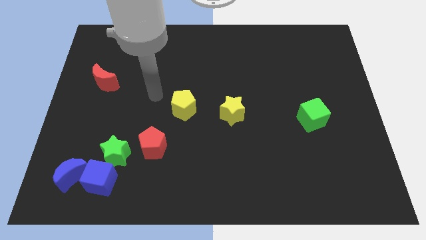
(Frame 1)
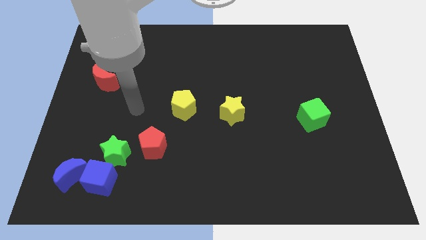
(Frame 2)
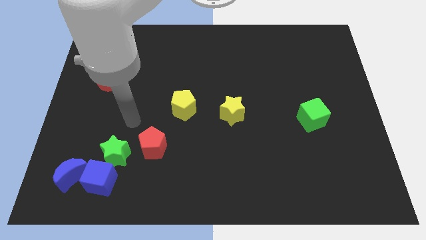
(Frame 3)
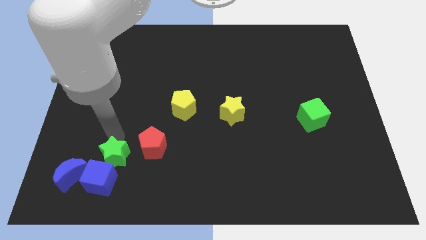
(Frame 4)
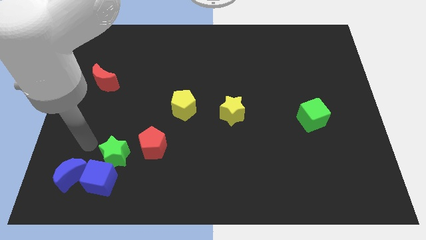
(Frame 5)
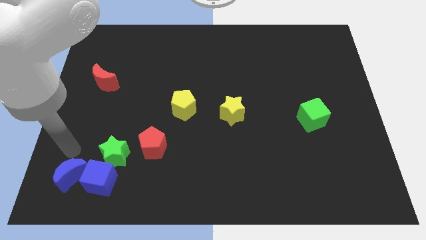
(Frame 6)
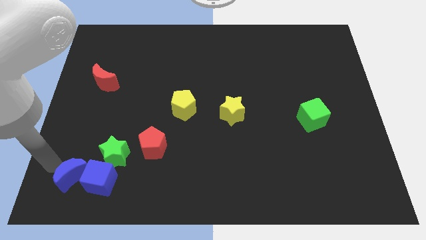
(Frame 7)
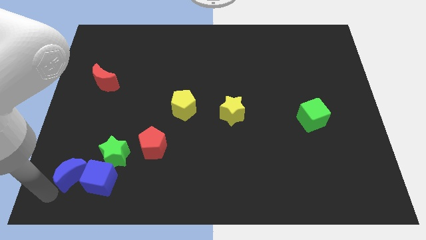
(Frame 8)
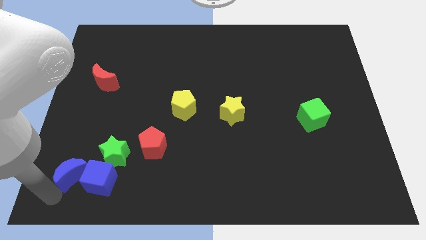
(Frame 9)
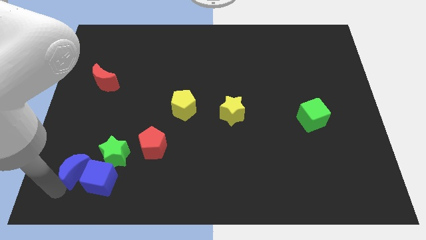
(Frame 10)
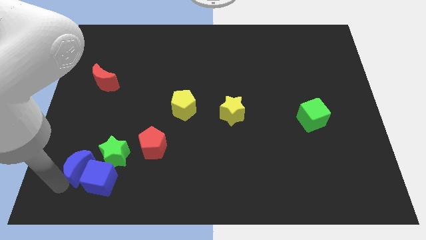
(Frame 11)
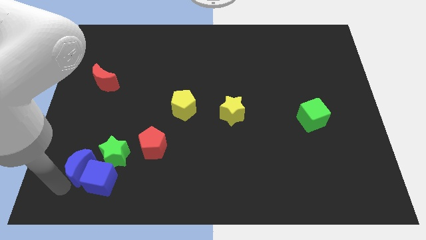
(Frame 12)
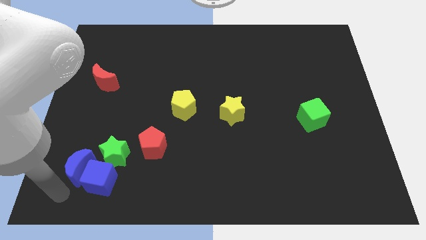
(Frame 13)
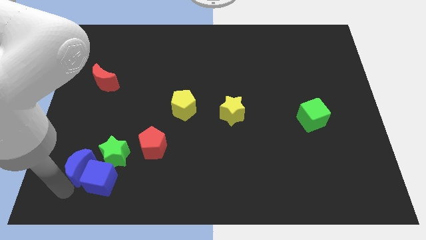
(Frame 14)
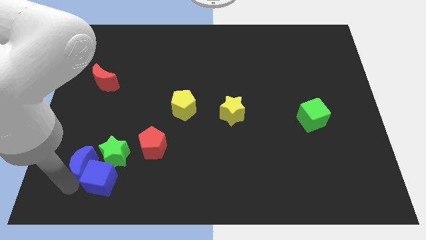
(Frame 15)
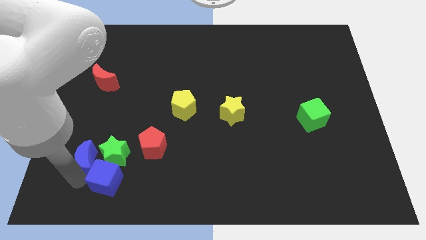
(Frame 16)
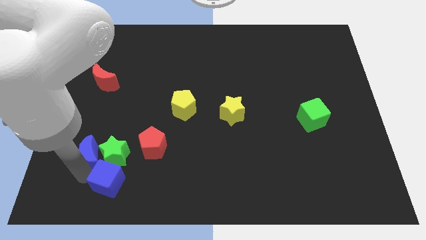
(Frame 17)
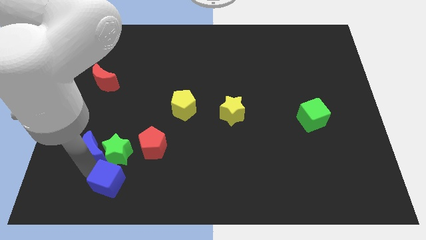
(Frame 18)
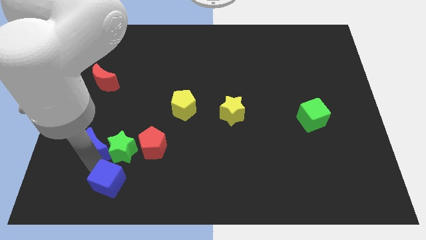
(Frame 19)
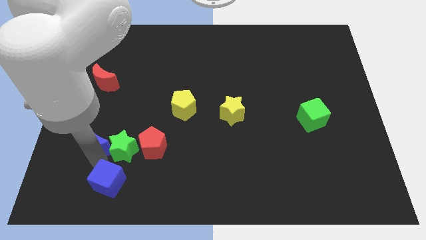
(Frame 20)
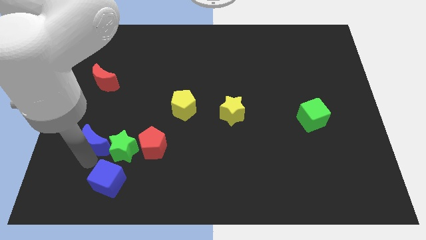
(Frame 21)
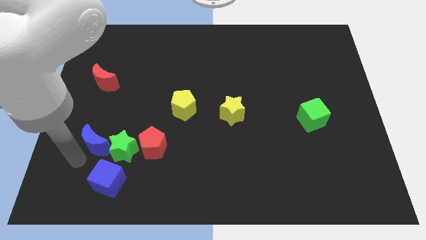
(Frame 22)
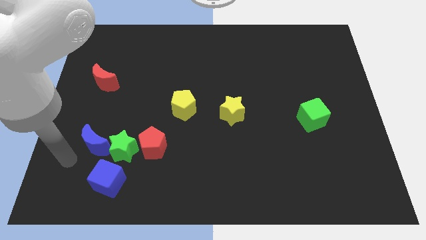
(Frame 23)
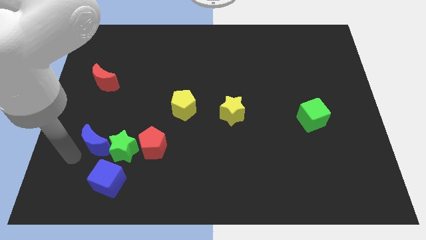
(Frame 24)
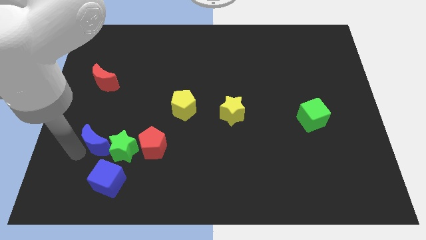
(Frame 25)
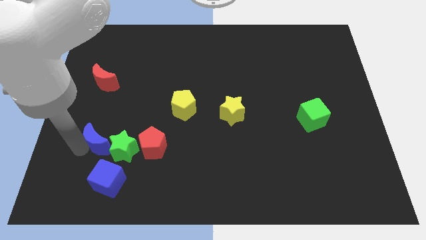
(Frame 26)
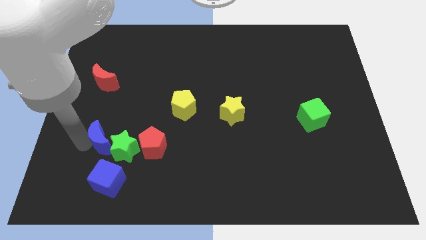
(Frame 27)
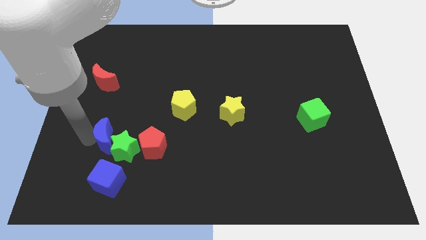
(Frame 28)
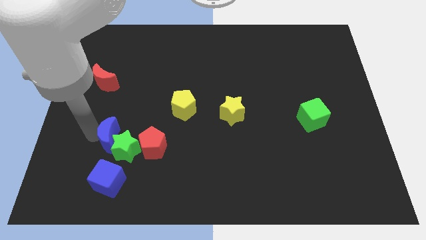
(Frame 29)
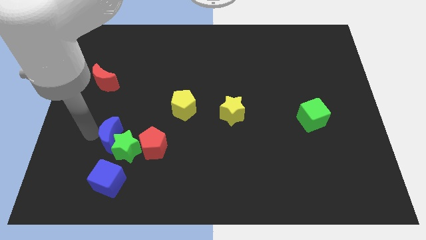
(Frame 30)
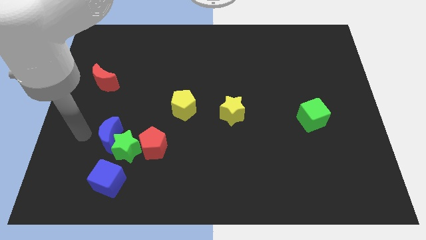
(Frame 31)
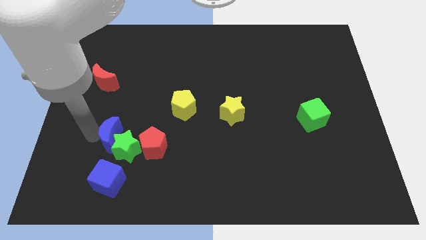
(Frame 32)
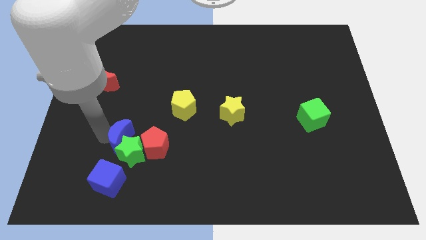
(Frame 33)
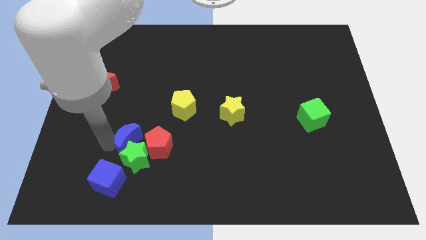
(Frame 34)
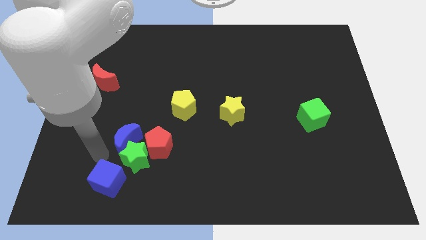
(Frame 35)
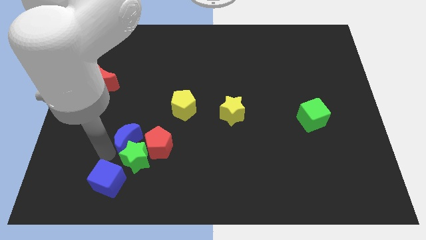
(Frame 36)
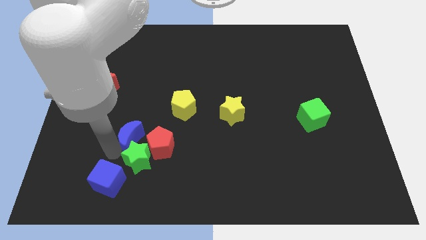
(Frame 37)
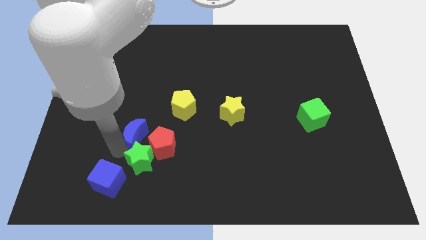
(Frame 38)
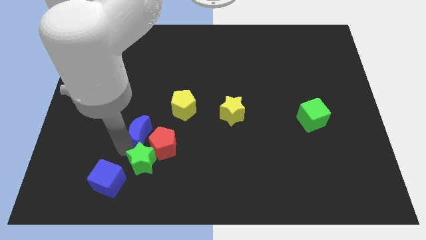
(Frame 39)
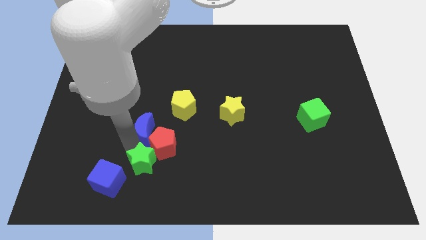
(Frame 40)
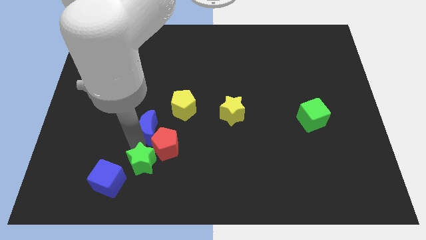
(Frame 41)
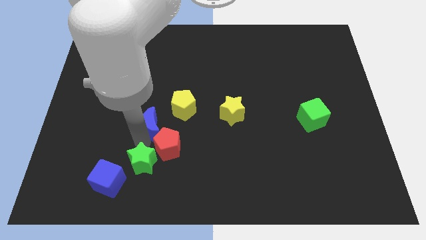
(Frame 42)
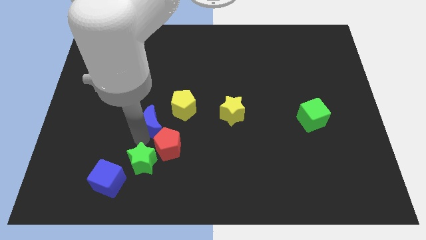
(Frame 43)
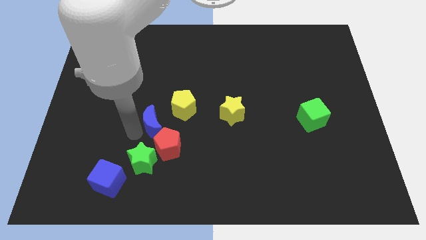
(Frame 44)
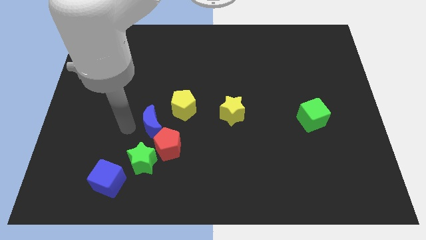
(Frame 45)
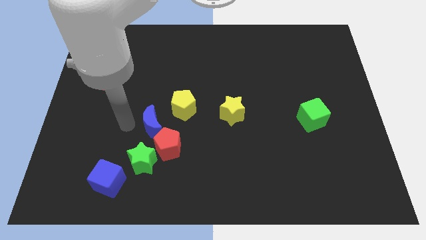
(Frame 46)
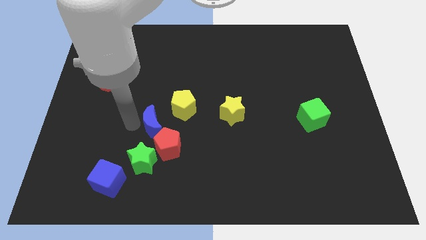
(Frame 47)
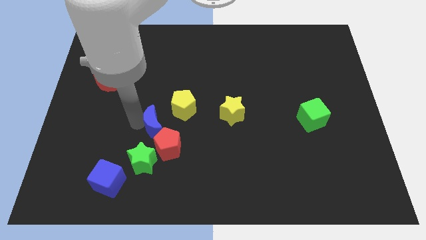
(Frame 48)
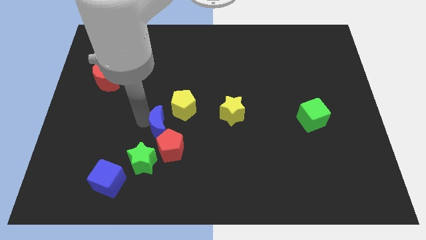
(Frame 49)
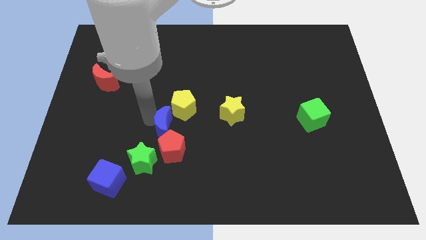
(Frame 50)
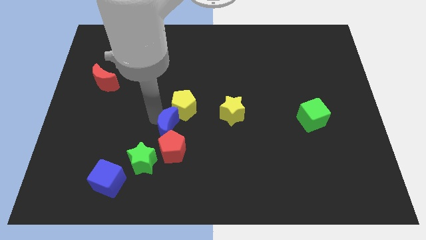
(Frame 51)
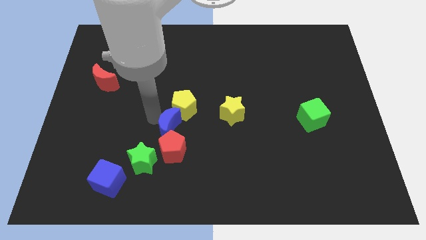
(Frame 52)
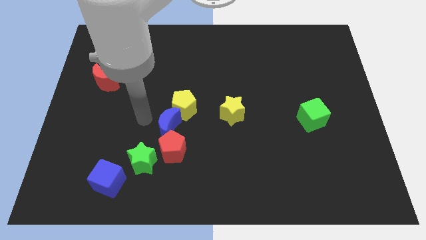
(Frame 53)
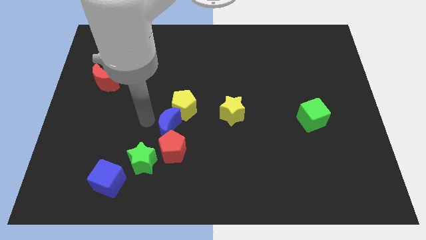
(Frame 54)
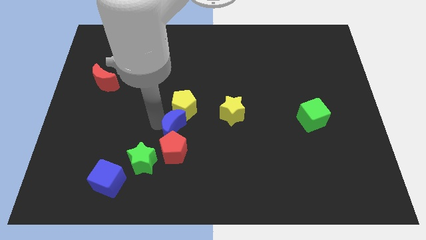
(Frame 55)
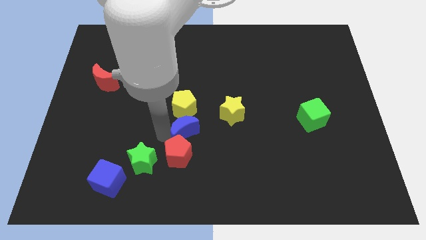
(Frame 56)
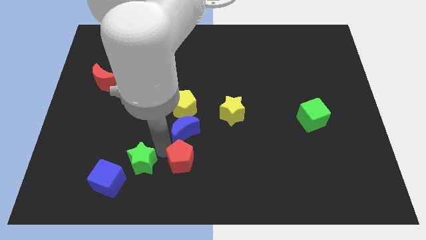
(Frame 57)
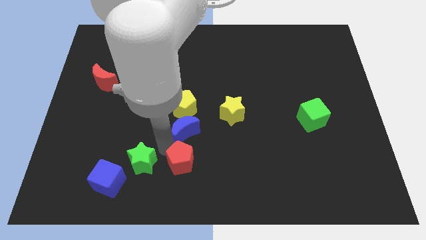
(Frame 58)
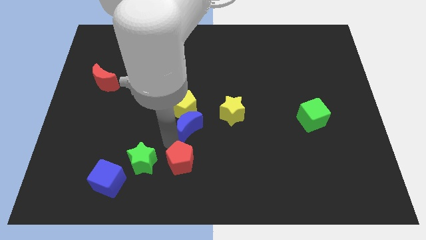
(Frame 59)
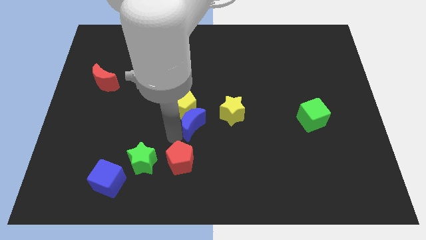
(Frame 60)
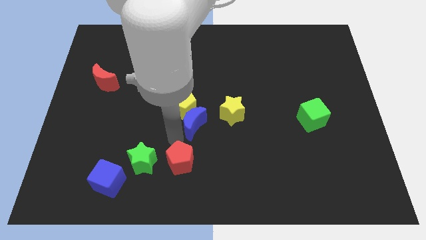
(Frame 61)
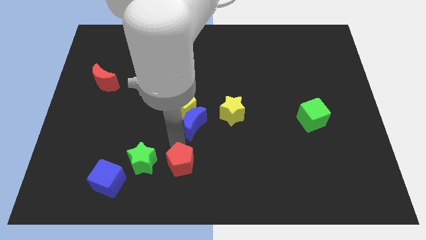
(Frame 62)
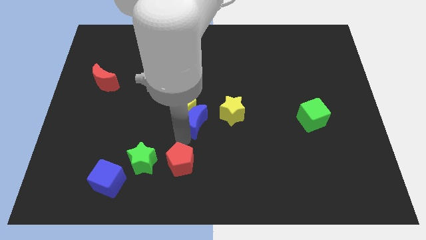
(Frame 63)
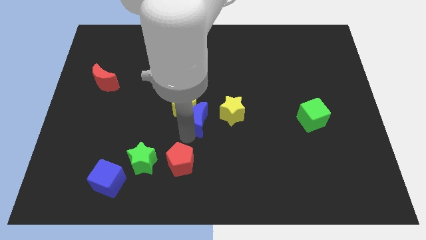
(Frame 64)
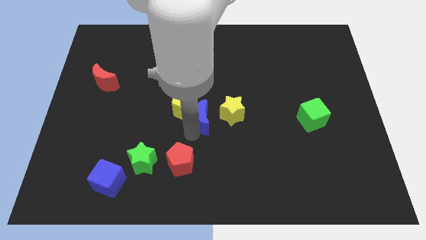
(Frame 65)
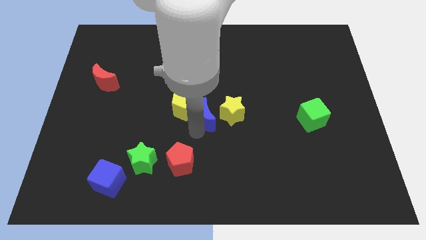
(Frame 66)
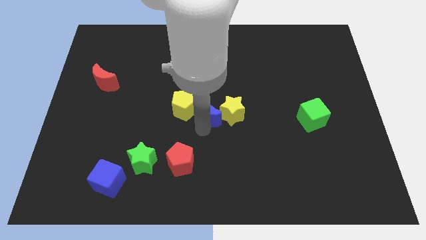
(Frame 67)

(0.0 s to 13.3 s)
slide the blue moon to the top left side of the yellow star

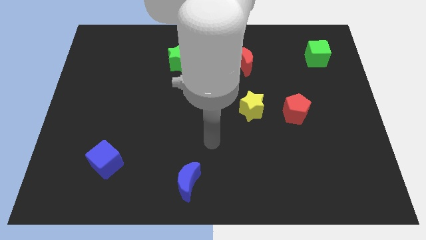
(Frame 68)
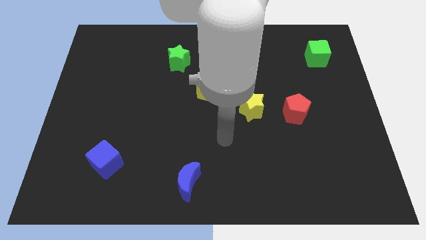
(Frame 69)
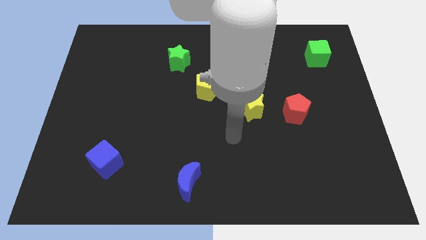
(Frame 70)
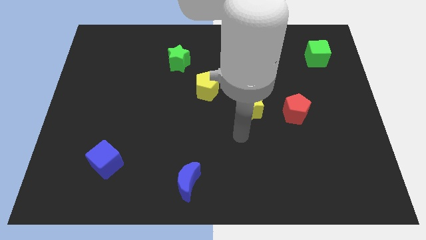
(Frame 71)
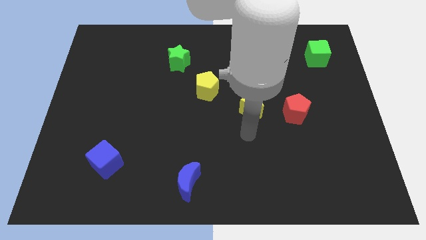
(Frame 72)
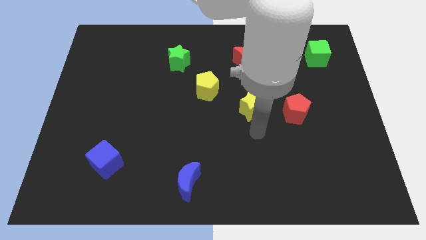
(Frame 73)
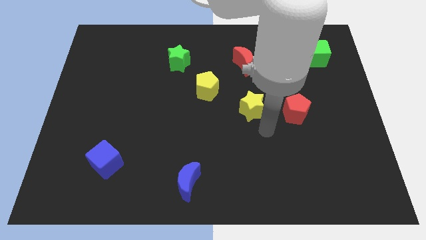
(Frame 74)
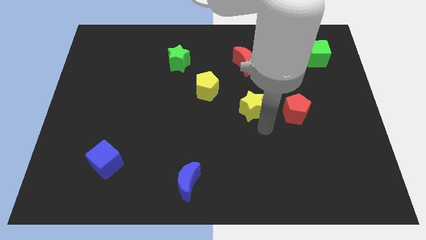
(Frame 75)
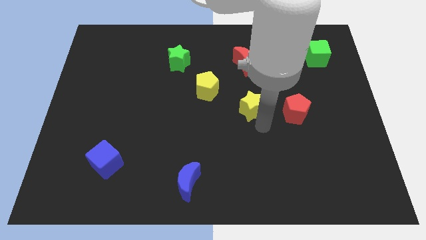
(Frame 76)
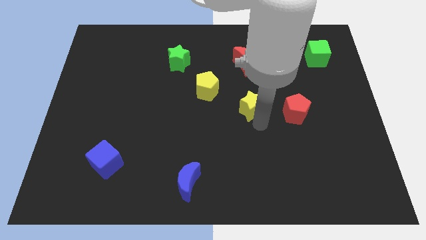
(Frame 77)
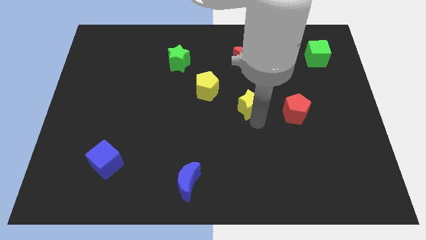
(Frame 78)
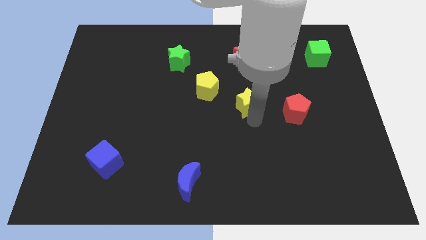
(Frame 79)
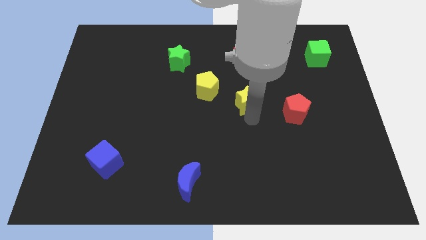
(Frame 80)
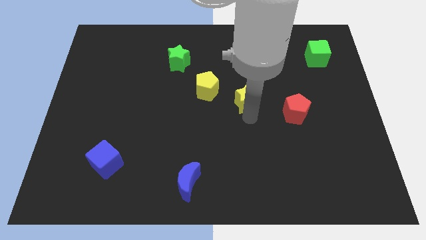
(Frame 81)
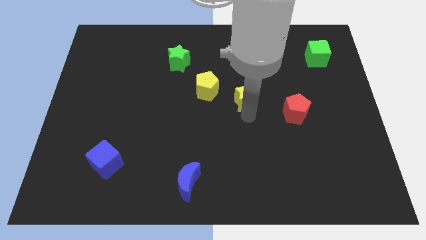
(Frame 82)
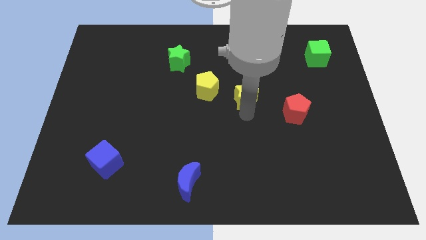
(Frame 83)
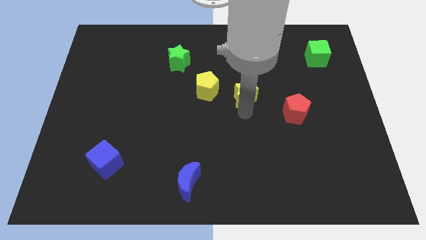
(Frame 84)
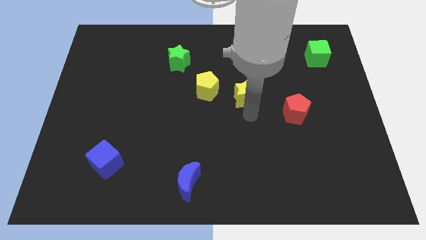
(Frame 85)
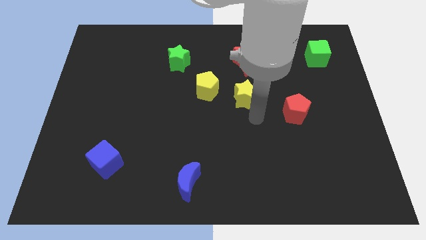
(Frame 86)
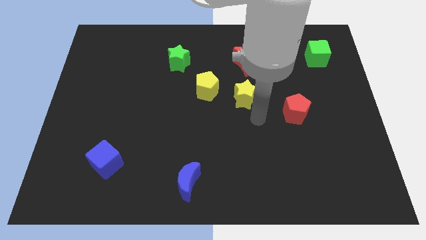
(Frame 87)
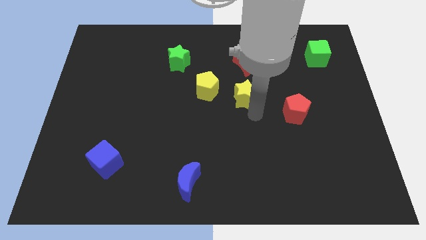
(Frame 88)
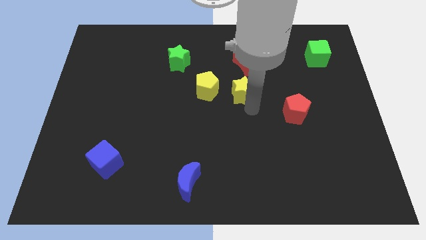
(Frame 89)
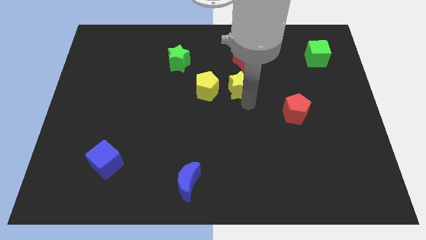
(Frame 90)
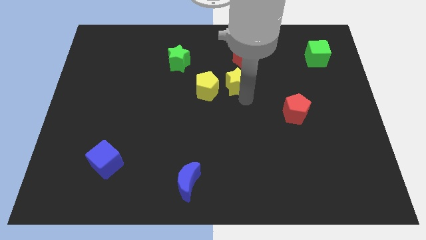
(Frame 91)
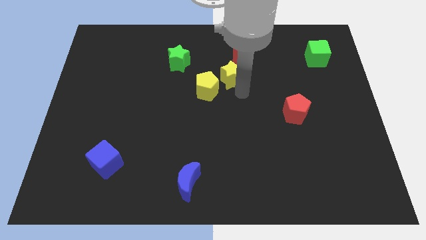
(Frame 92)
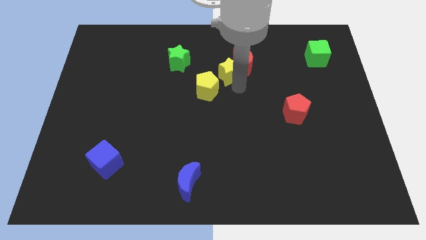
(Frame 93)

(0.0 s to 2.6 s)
put the yellow star right of the green star
